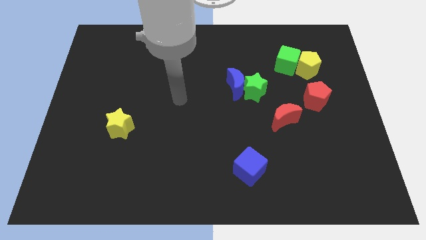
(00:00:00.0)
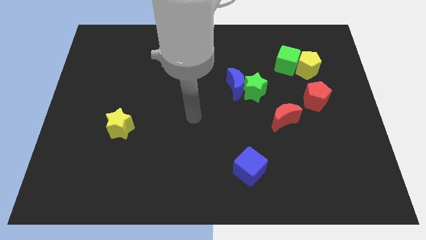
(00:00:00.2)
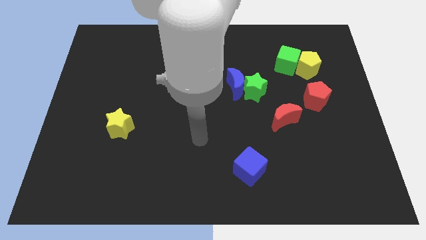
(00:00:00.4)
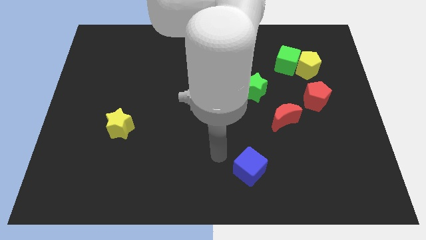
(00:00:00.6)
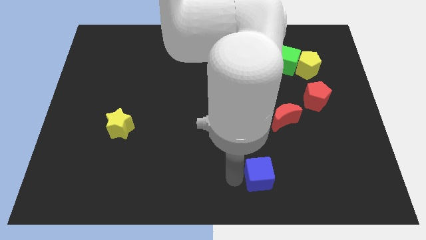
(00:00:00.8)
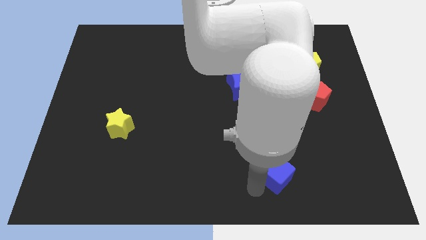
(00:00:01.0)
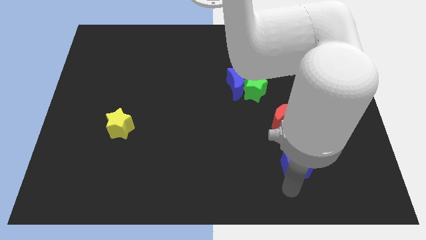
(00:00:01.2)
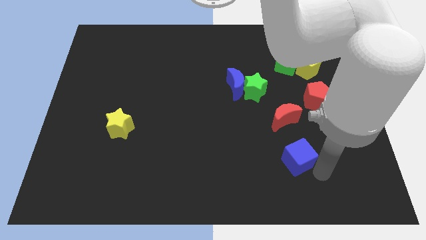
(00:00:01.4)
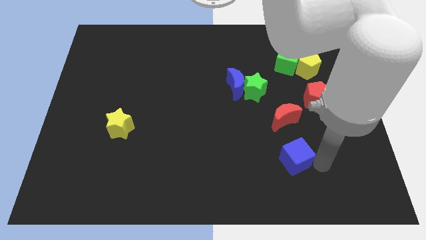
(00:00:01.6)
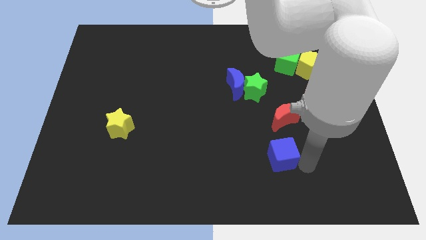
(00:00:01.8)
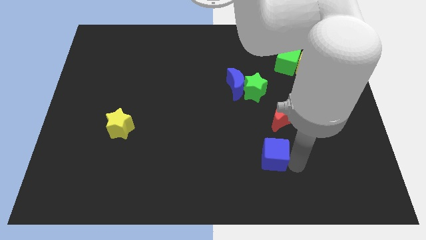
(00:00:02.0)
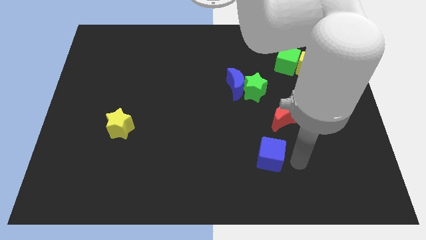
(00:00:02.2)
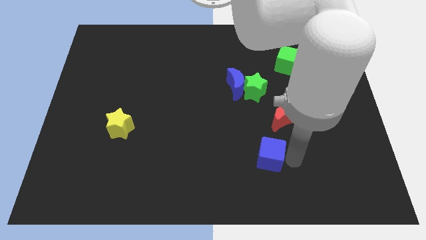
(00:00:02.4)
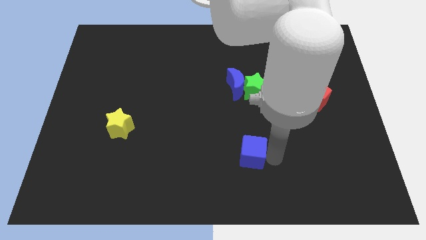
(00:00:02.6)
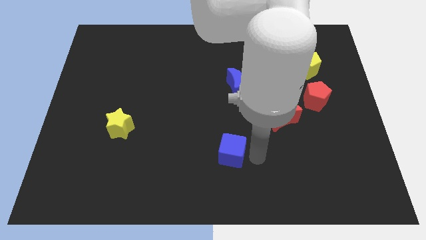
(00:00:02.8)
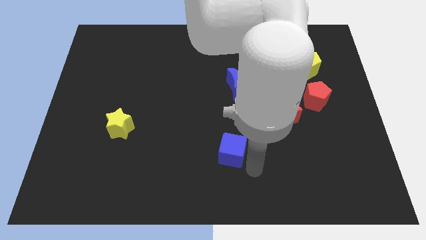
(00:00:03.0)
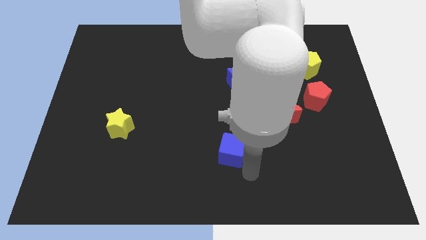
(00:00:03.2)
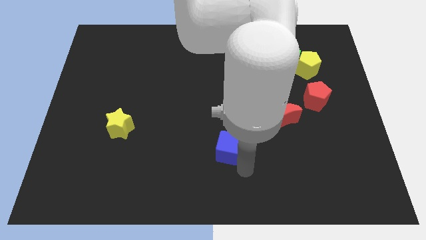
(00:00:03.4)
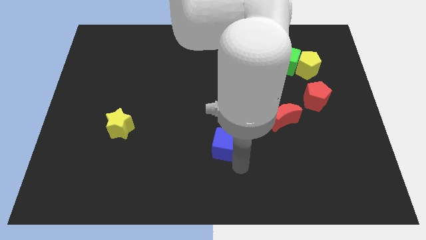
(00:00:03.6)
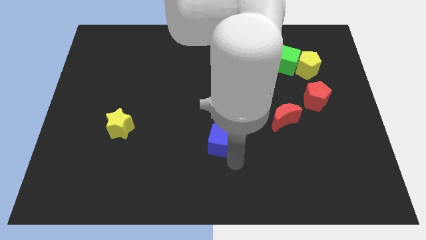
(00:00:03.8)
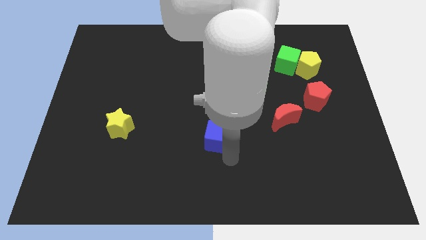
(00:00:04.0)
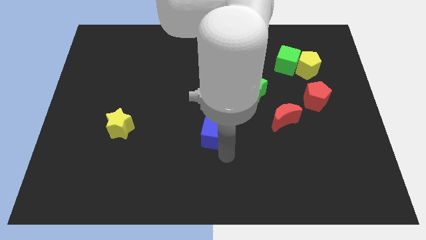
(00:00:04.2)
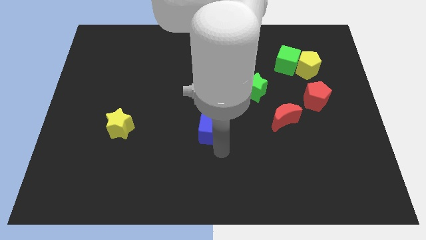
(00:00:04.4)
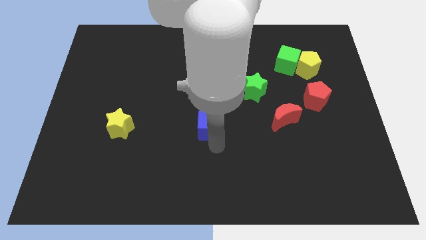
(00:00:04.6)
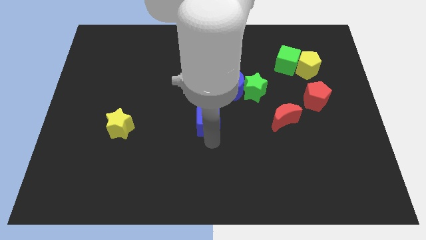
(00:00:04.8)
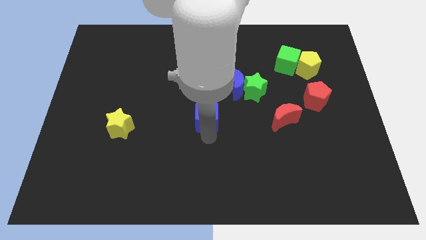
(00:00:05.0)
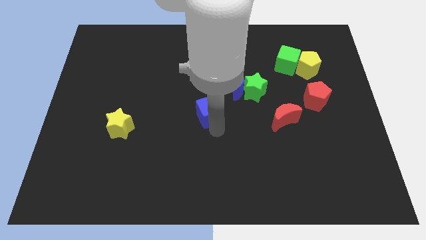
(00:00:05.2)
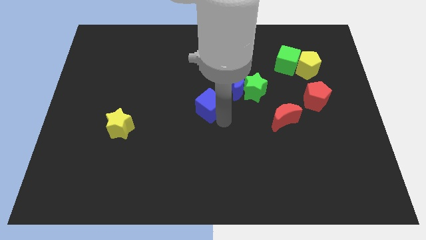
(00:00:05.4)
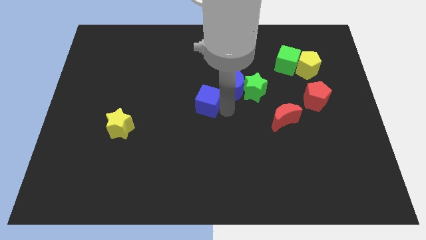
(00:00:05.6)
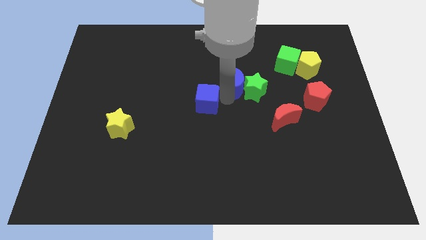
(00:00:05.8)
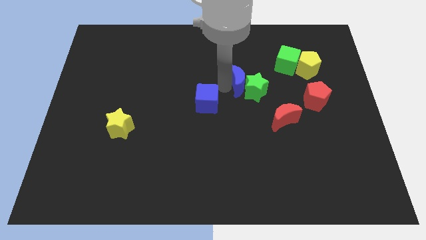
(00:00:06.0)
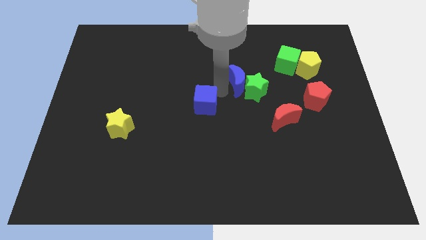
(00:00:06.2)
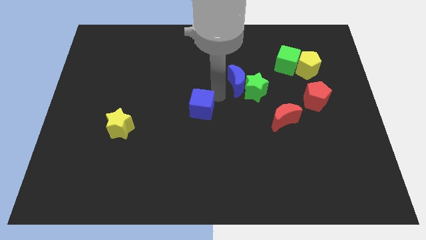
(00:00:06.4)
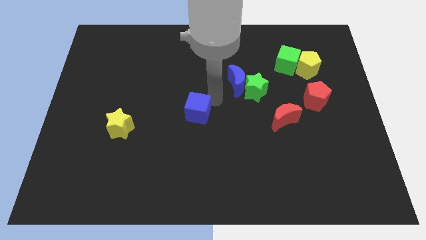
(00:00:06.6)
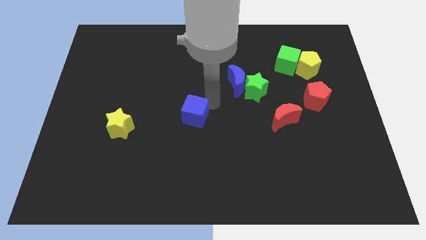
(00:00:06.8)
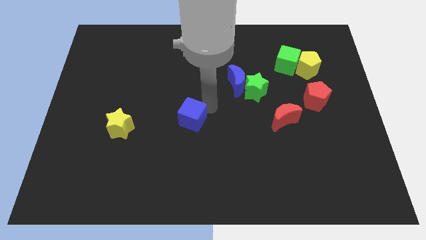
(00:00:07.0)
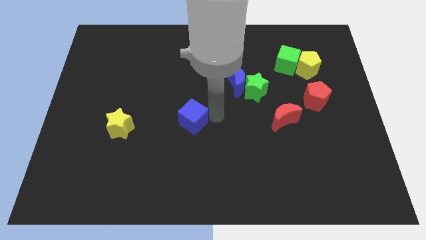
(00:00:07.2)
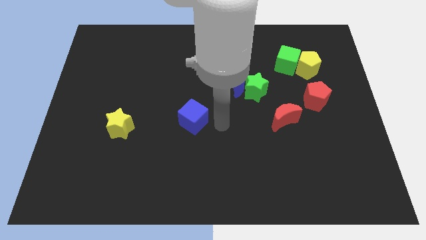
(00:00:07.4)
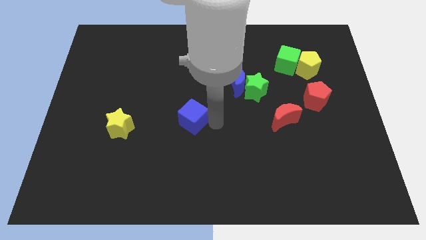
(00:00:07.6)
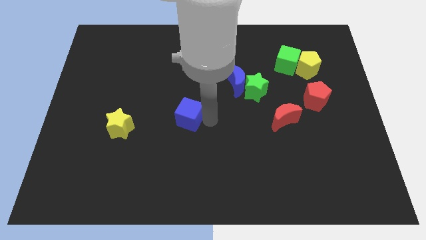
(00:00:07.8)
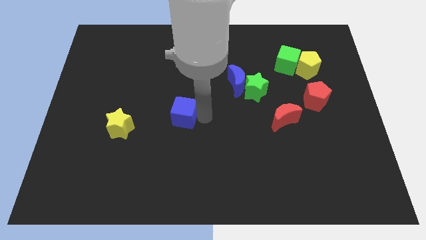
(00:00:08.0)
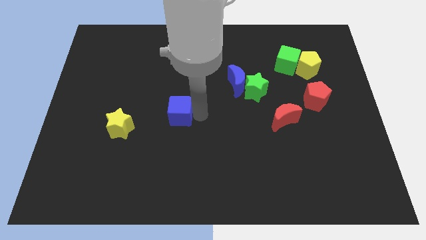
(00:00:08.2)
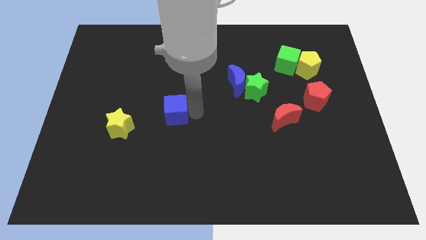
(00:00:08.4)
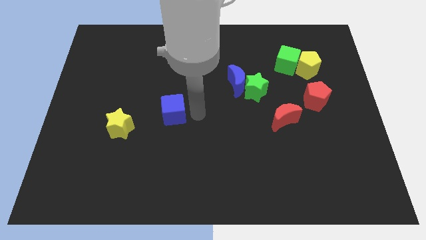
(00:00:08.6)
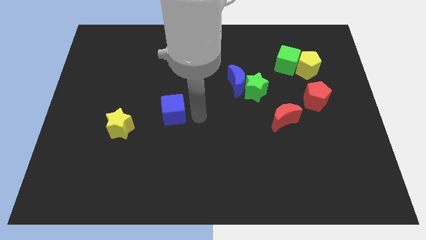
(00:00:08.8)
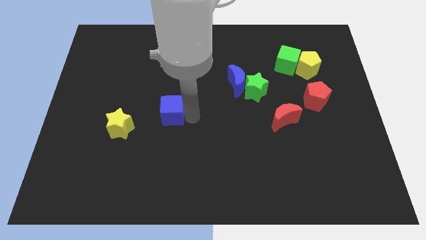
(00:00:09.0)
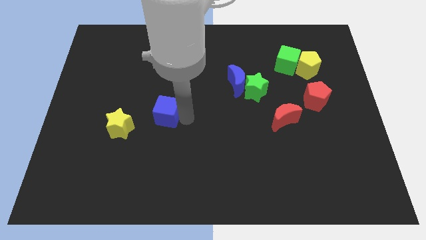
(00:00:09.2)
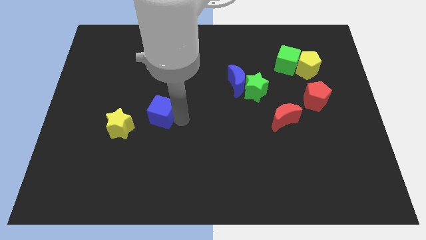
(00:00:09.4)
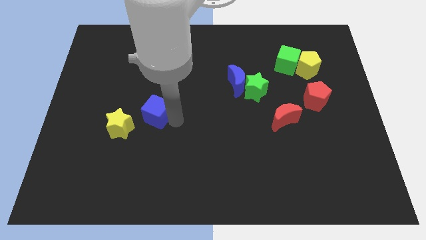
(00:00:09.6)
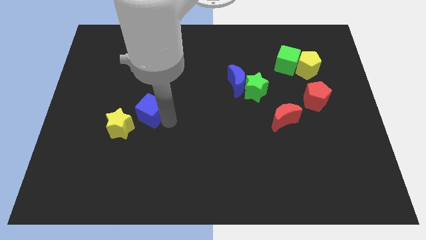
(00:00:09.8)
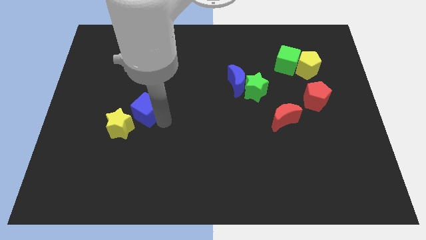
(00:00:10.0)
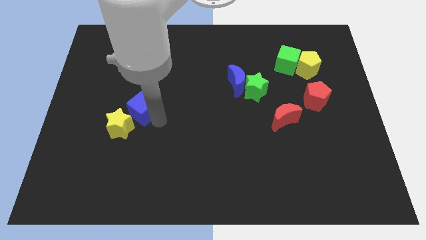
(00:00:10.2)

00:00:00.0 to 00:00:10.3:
slide the blue cube to the top of the yellow star

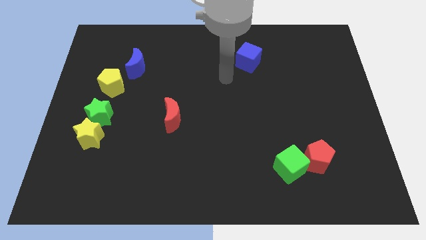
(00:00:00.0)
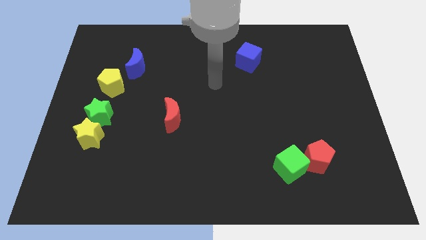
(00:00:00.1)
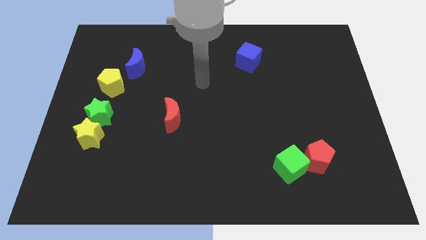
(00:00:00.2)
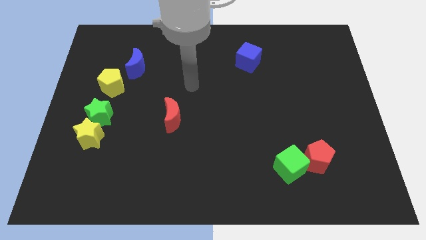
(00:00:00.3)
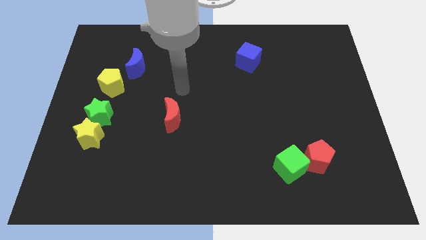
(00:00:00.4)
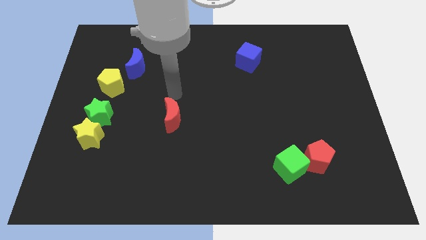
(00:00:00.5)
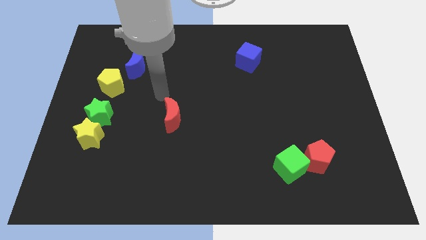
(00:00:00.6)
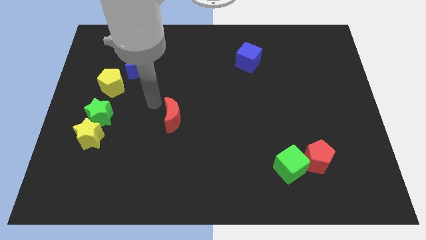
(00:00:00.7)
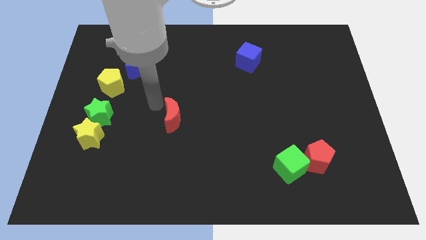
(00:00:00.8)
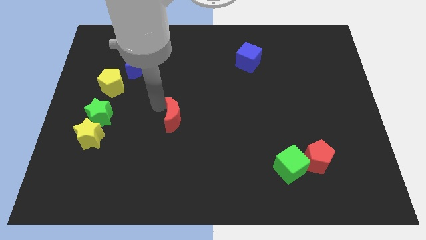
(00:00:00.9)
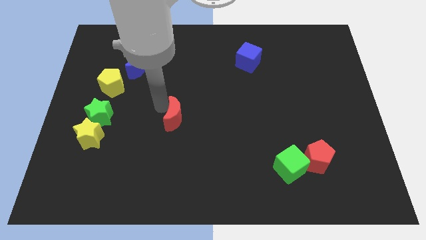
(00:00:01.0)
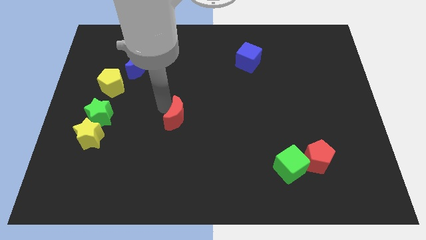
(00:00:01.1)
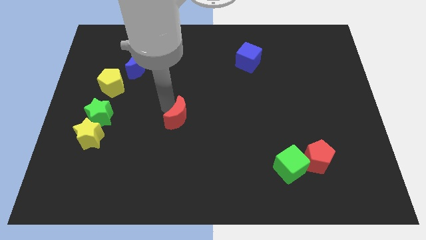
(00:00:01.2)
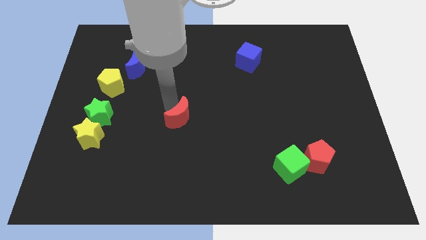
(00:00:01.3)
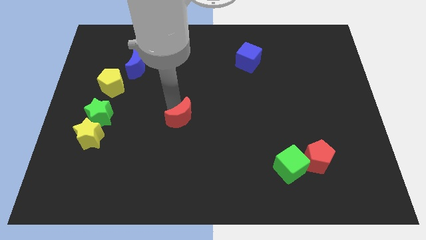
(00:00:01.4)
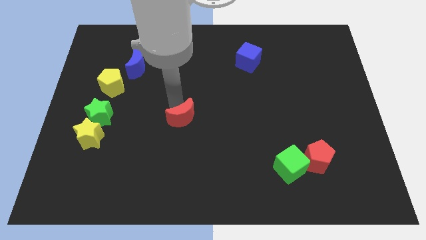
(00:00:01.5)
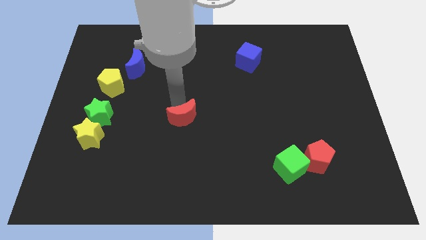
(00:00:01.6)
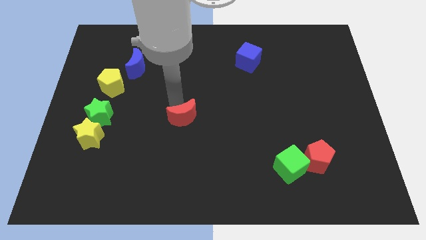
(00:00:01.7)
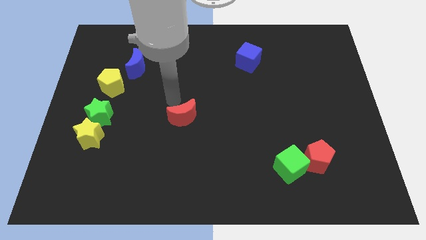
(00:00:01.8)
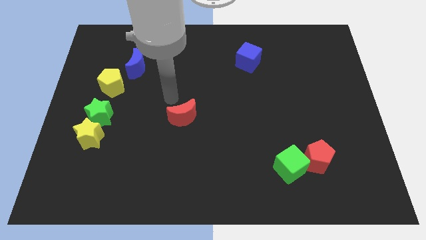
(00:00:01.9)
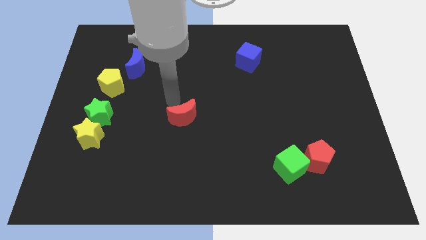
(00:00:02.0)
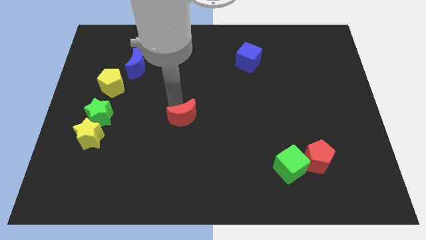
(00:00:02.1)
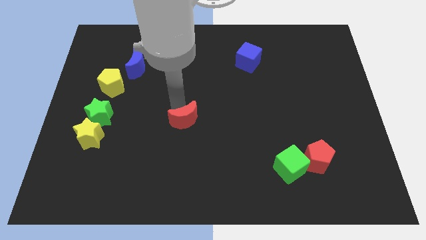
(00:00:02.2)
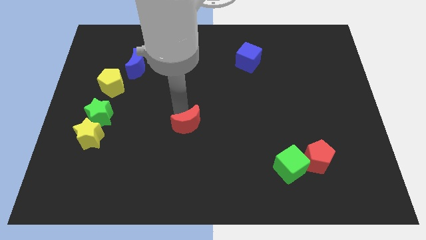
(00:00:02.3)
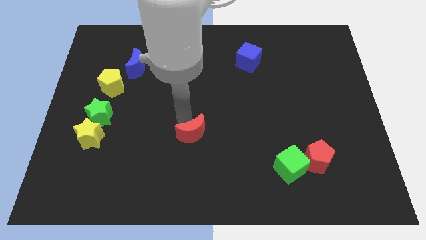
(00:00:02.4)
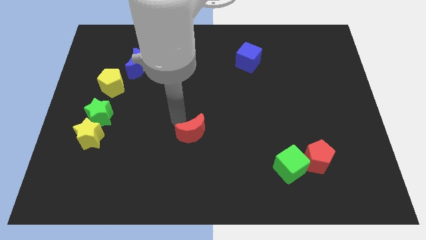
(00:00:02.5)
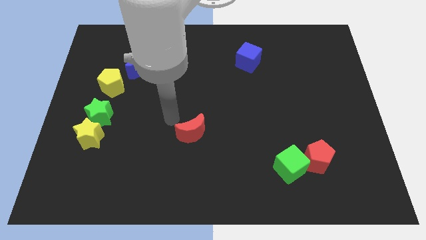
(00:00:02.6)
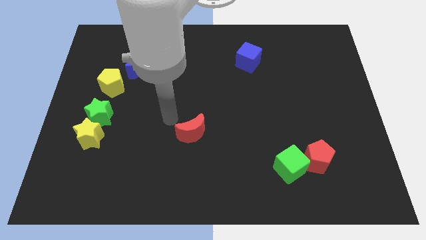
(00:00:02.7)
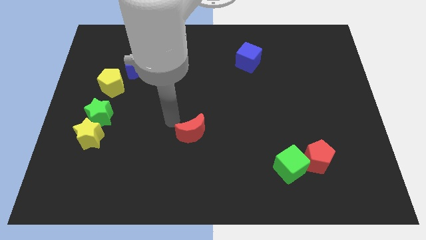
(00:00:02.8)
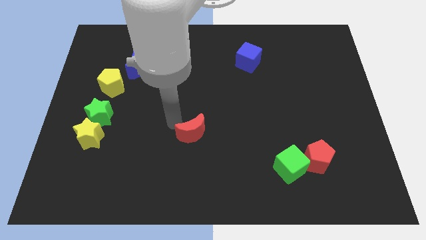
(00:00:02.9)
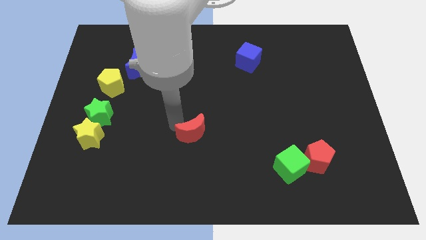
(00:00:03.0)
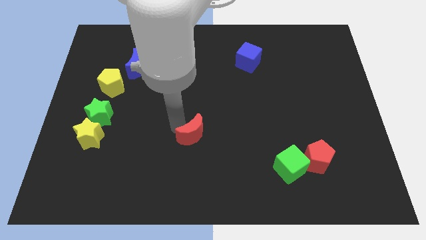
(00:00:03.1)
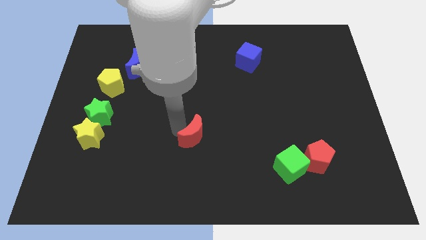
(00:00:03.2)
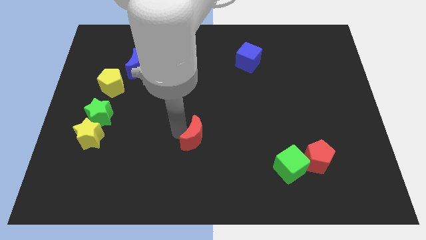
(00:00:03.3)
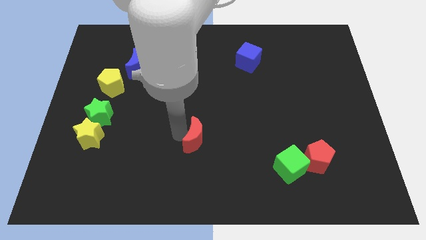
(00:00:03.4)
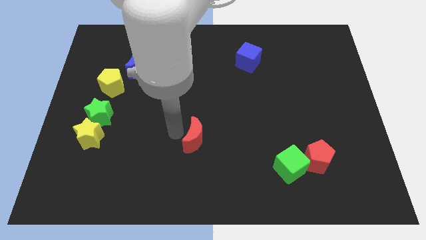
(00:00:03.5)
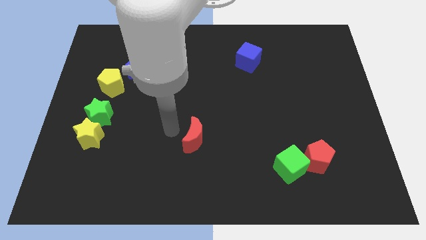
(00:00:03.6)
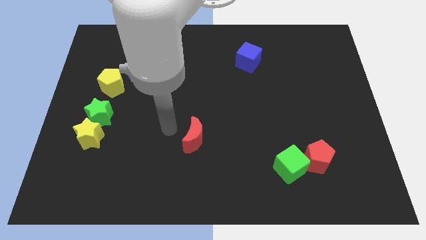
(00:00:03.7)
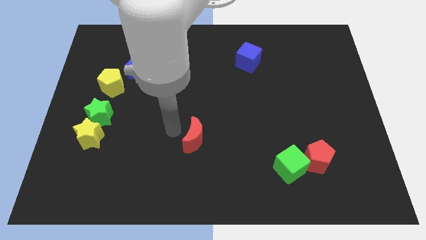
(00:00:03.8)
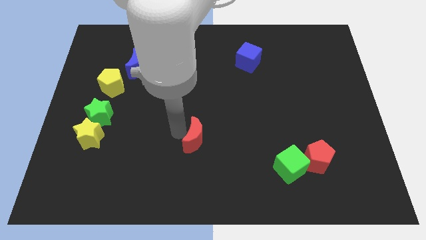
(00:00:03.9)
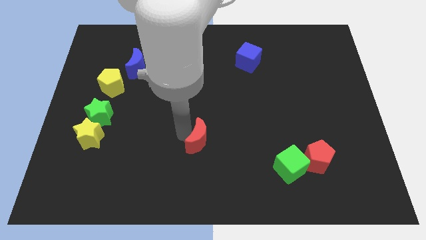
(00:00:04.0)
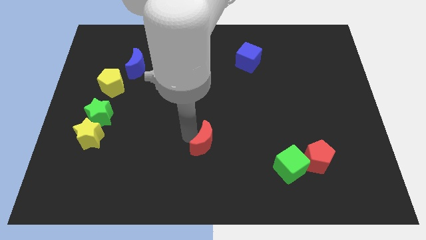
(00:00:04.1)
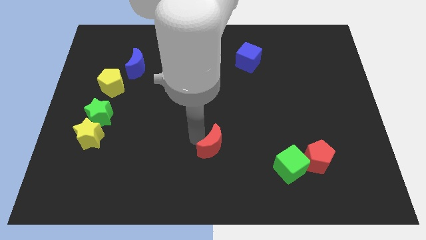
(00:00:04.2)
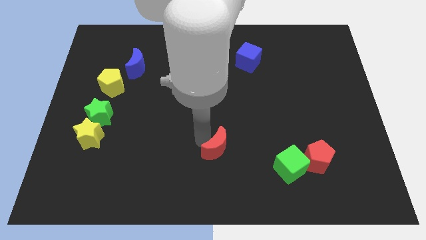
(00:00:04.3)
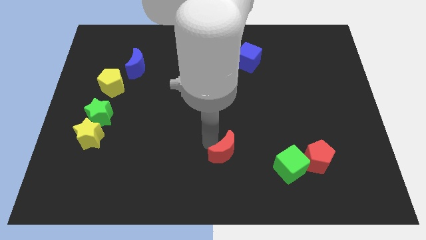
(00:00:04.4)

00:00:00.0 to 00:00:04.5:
push the red moon left of the green cube
